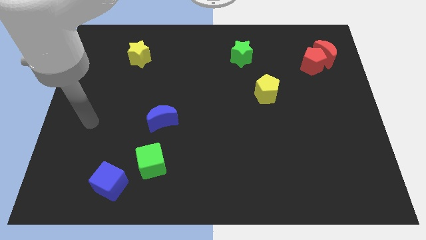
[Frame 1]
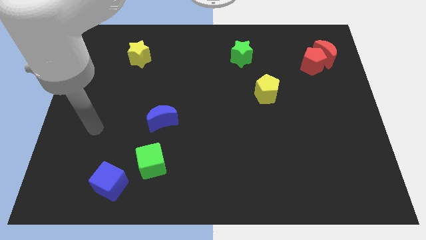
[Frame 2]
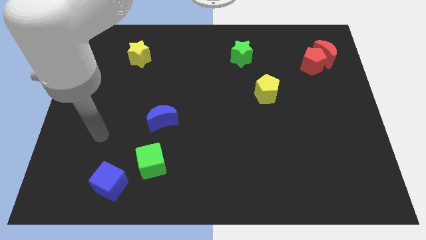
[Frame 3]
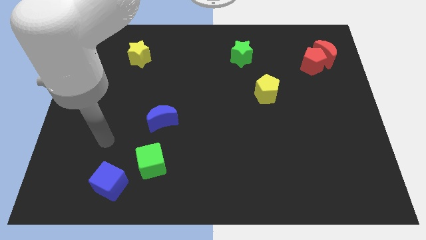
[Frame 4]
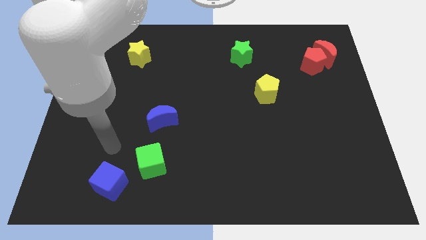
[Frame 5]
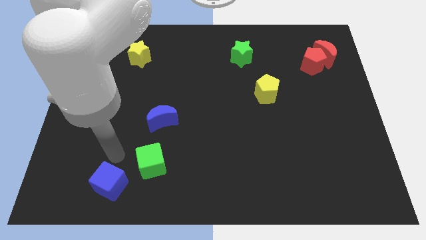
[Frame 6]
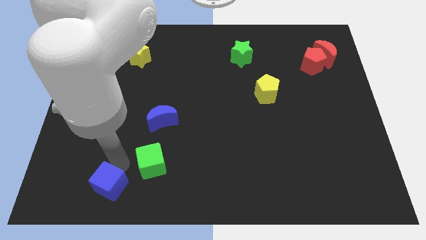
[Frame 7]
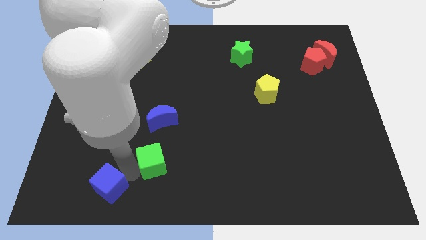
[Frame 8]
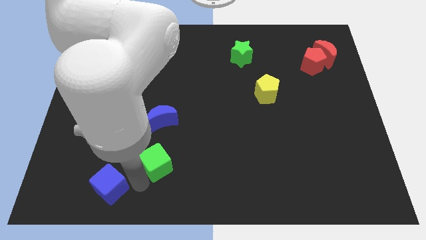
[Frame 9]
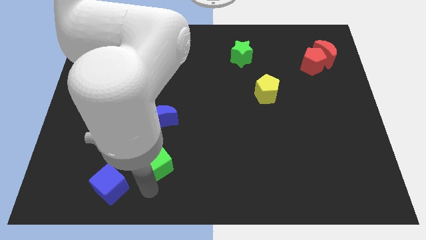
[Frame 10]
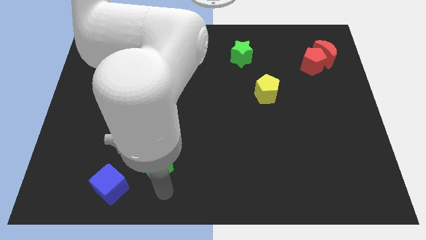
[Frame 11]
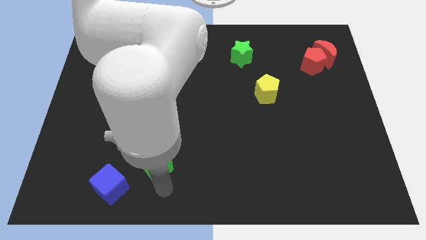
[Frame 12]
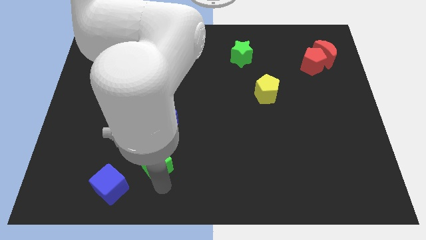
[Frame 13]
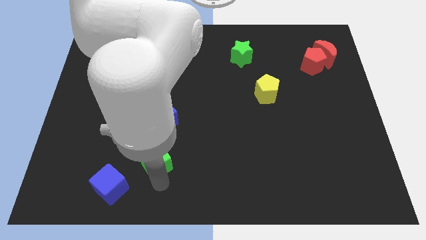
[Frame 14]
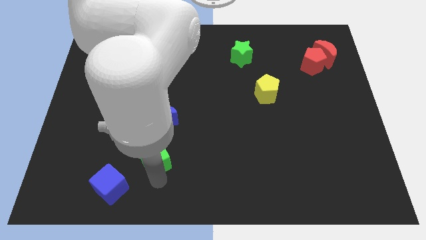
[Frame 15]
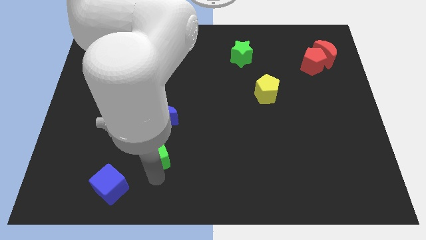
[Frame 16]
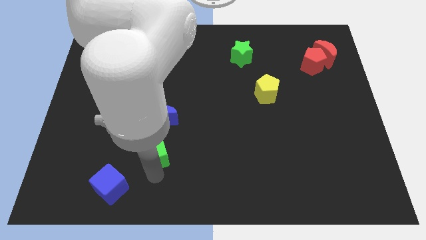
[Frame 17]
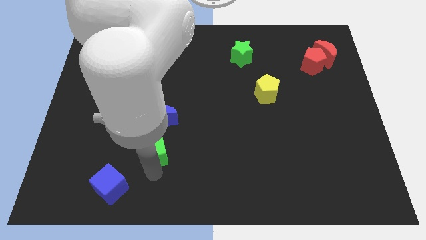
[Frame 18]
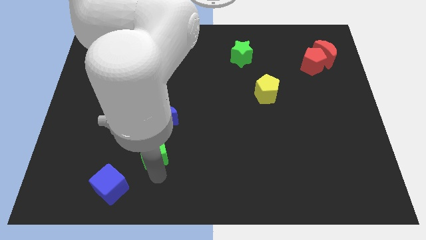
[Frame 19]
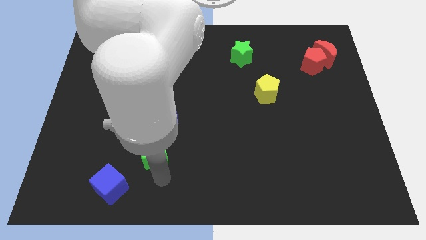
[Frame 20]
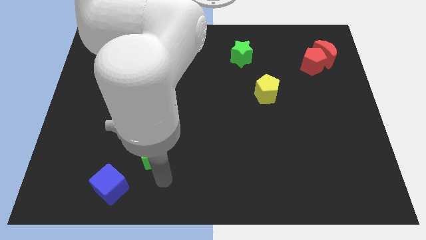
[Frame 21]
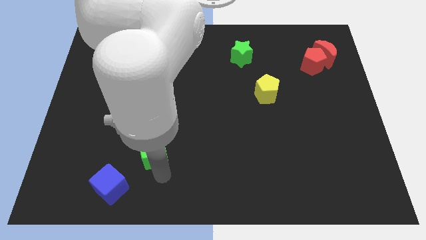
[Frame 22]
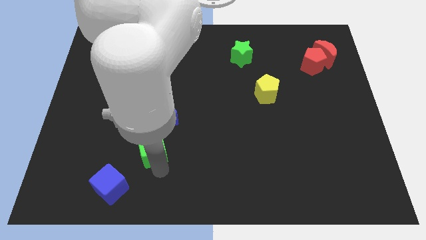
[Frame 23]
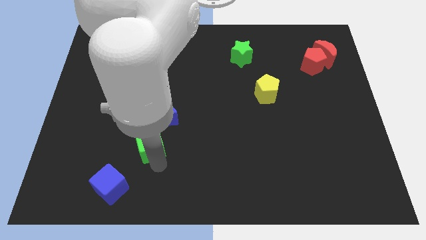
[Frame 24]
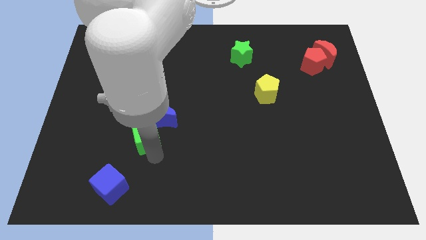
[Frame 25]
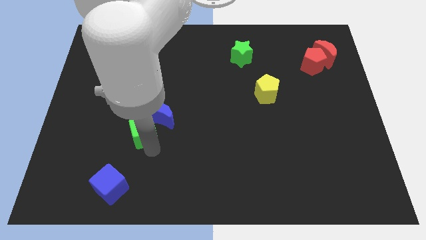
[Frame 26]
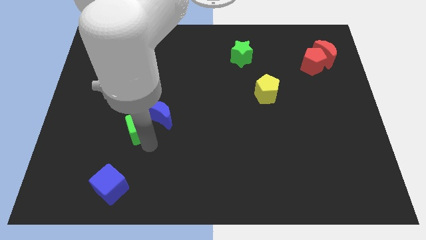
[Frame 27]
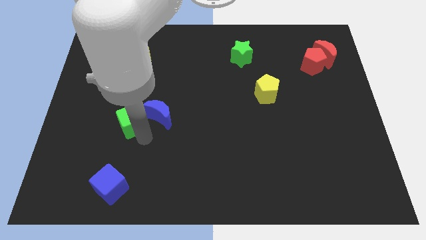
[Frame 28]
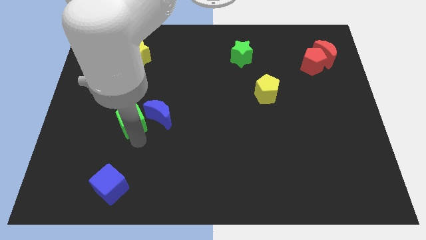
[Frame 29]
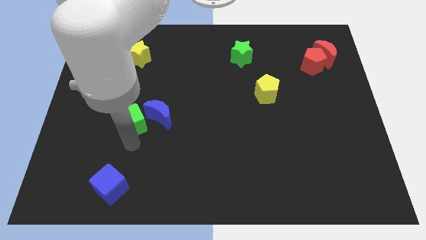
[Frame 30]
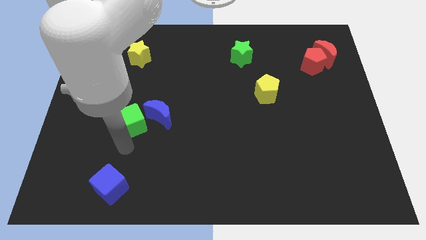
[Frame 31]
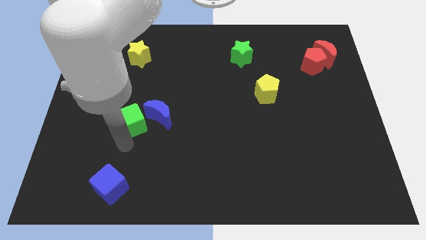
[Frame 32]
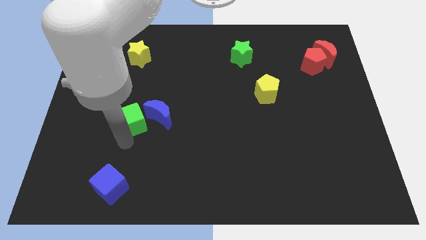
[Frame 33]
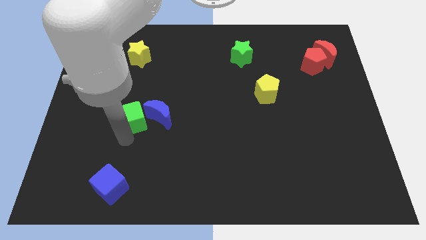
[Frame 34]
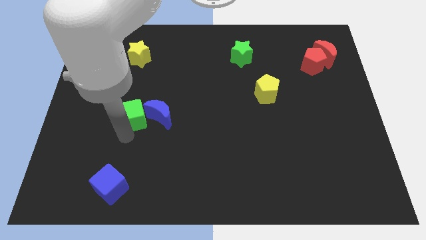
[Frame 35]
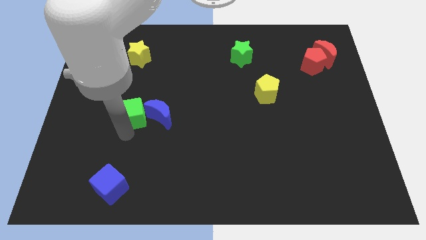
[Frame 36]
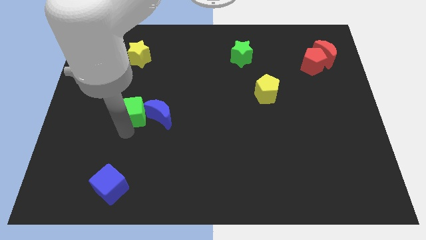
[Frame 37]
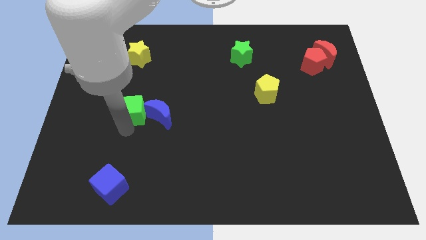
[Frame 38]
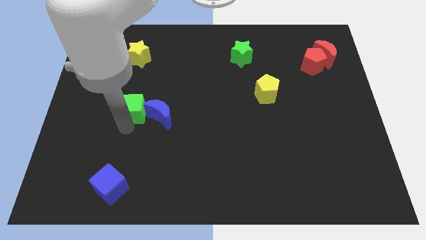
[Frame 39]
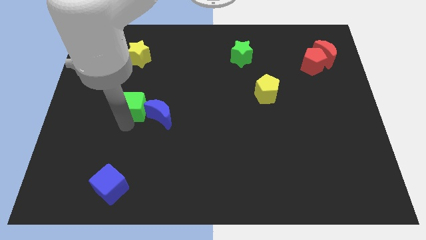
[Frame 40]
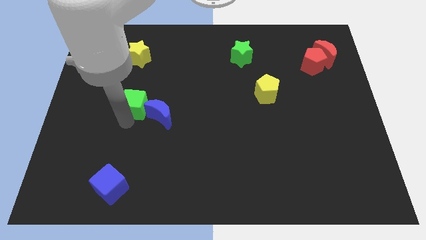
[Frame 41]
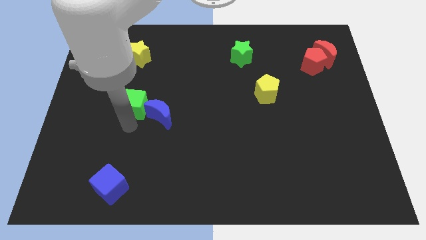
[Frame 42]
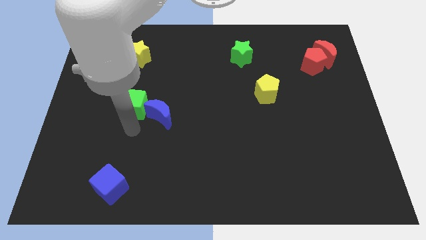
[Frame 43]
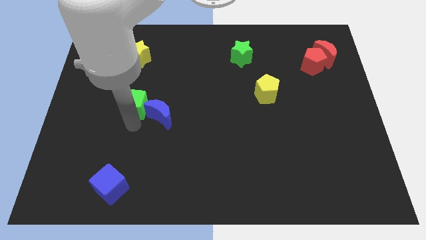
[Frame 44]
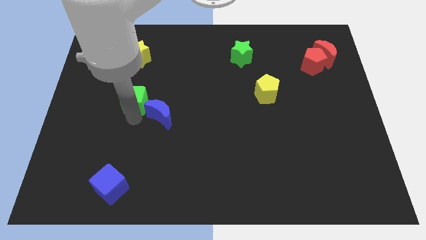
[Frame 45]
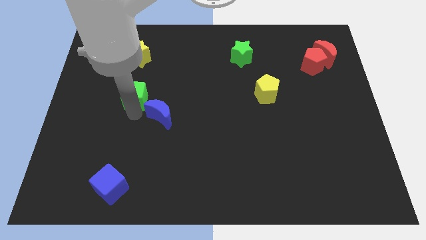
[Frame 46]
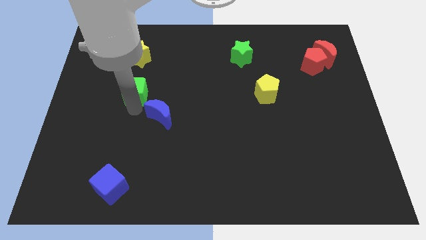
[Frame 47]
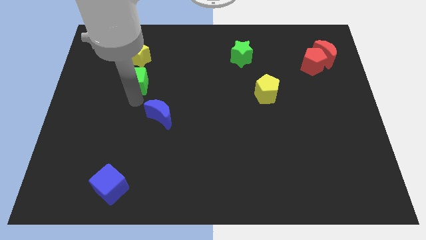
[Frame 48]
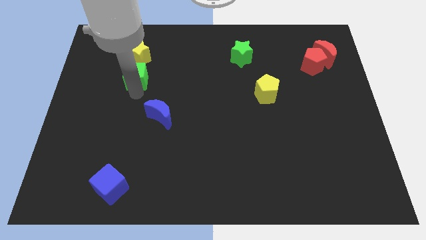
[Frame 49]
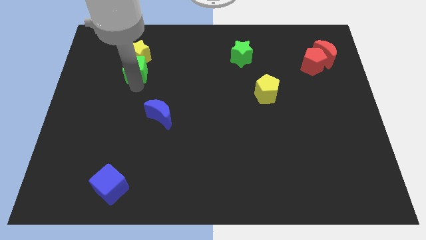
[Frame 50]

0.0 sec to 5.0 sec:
put the green cube close to the yellow star

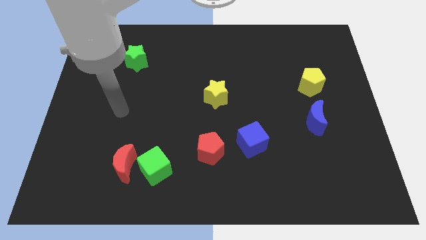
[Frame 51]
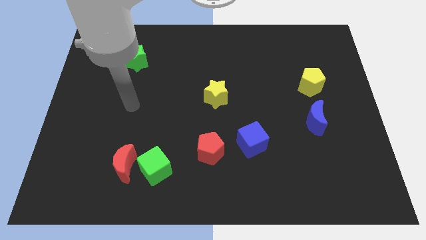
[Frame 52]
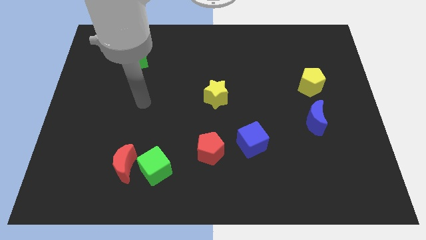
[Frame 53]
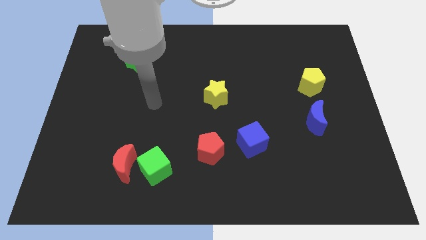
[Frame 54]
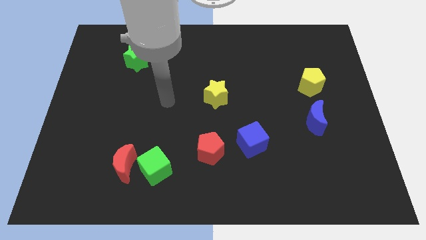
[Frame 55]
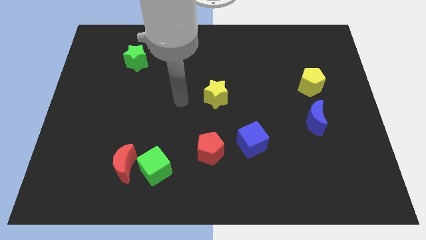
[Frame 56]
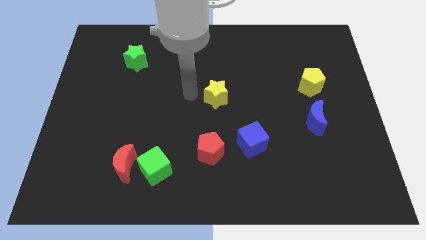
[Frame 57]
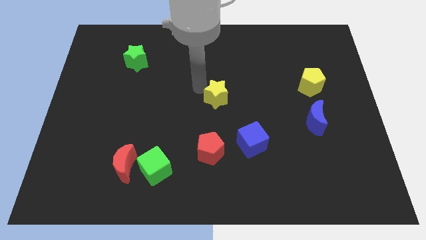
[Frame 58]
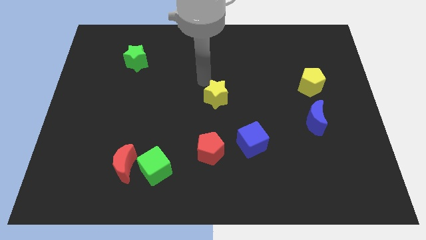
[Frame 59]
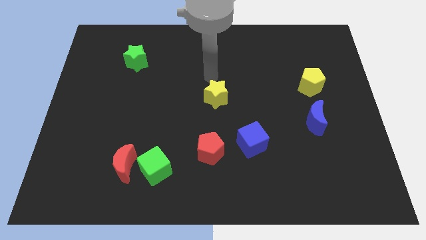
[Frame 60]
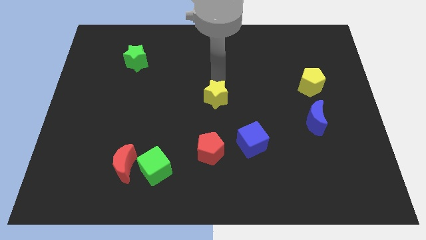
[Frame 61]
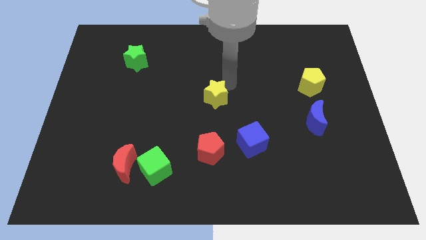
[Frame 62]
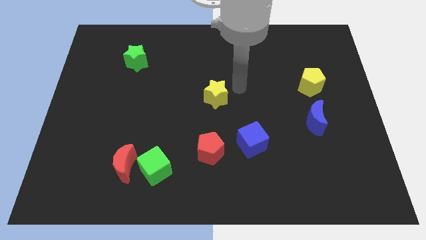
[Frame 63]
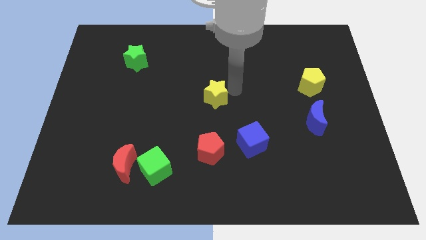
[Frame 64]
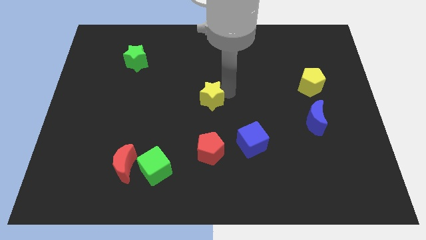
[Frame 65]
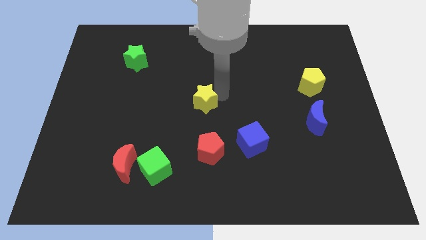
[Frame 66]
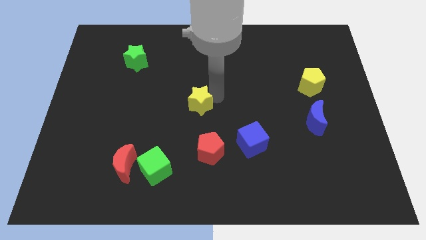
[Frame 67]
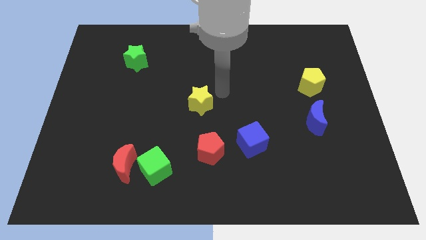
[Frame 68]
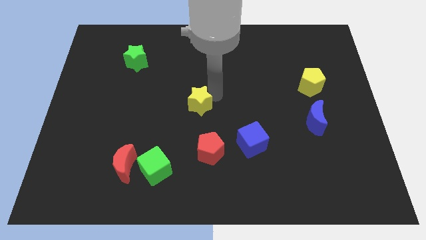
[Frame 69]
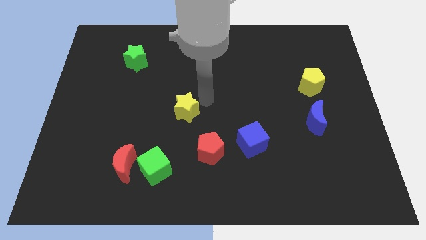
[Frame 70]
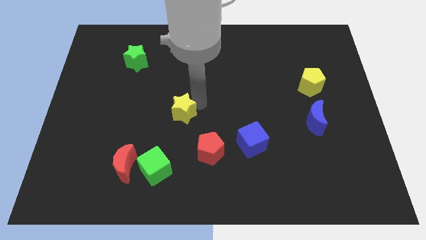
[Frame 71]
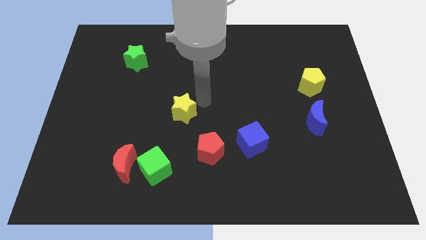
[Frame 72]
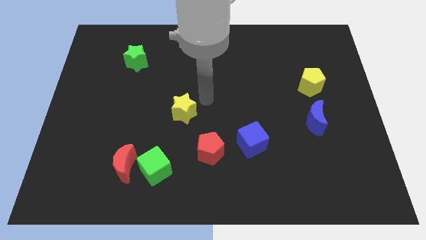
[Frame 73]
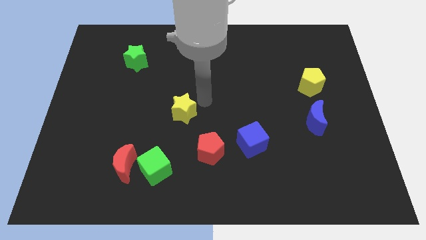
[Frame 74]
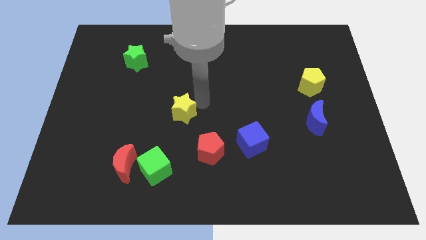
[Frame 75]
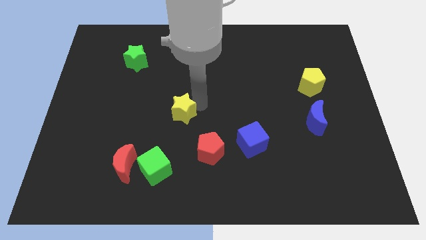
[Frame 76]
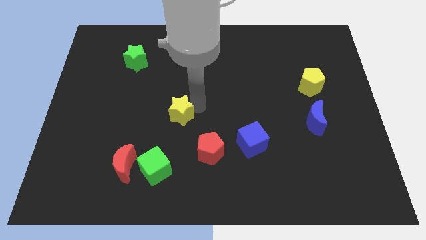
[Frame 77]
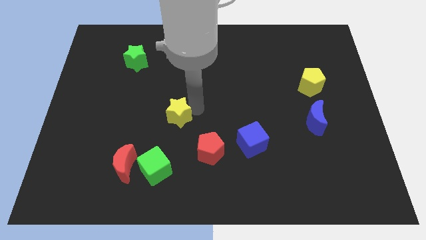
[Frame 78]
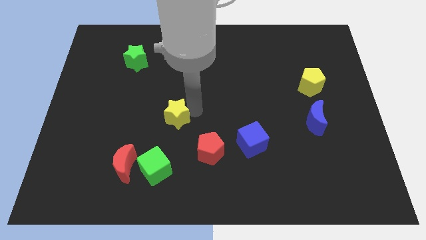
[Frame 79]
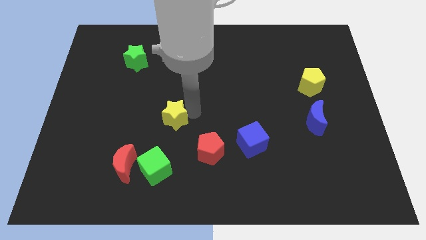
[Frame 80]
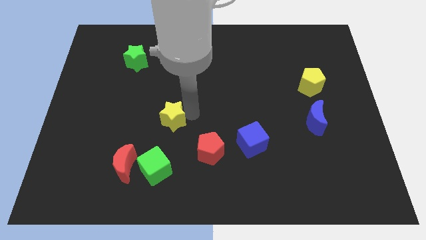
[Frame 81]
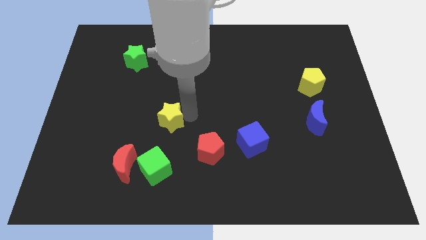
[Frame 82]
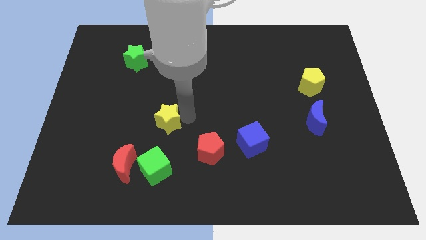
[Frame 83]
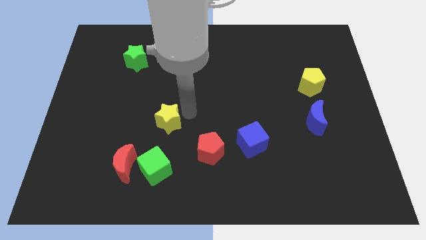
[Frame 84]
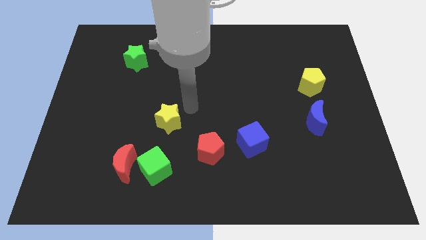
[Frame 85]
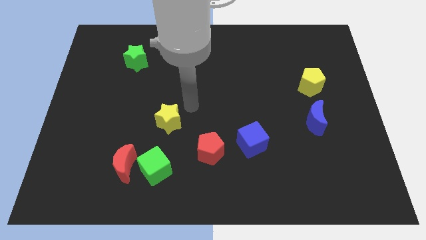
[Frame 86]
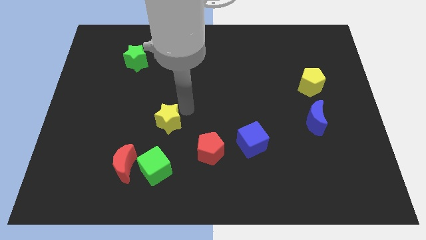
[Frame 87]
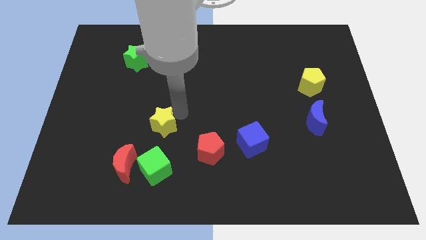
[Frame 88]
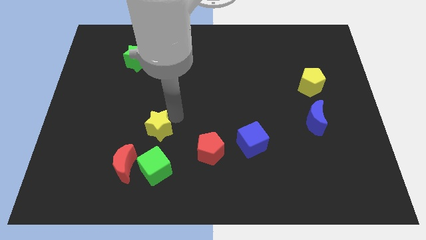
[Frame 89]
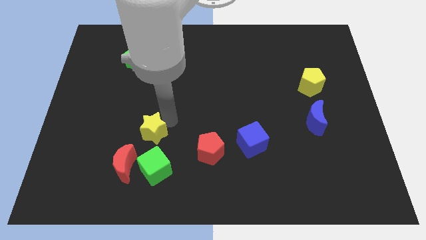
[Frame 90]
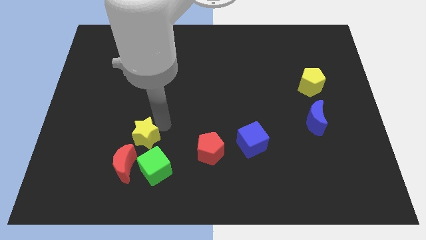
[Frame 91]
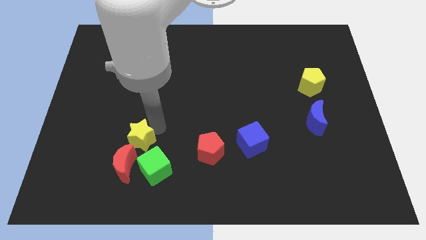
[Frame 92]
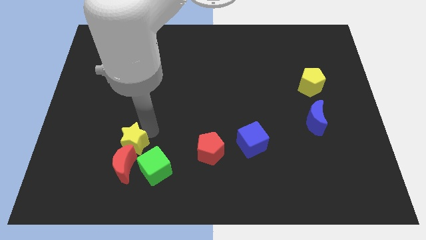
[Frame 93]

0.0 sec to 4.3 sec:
put the yellow star to the red moon
